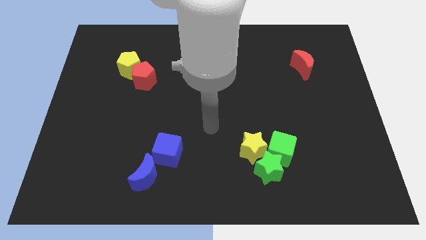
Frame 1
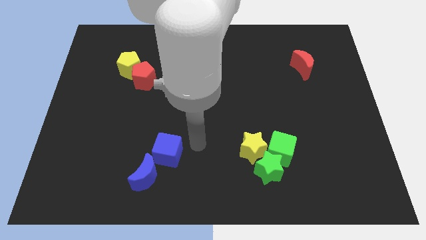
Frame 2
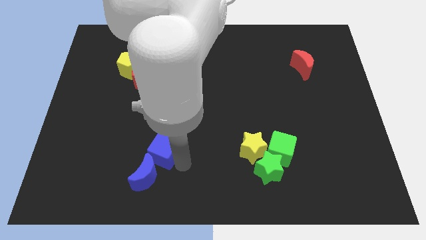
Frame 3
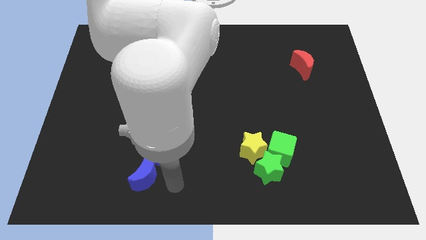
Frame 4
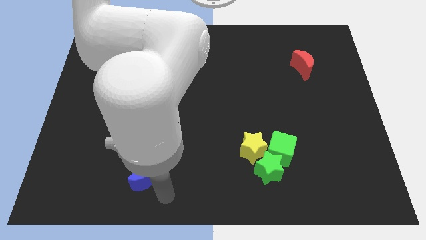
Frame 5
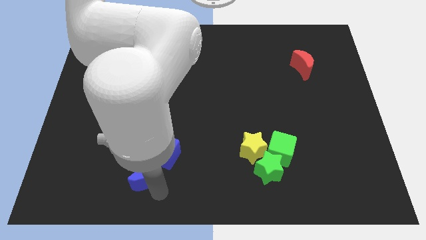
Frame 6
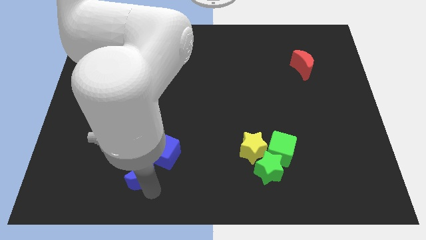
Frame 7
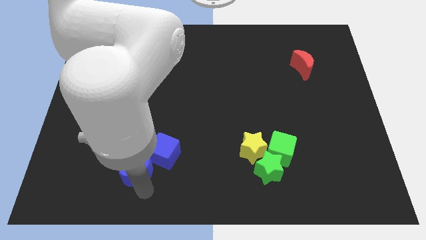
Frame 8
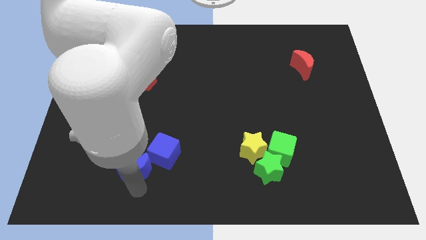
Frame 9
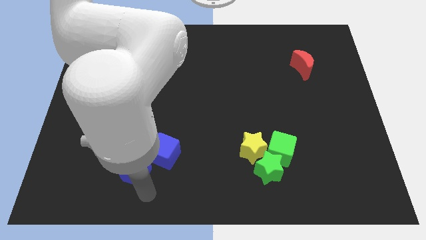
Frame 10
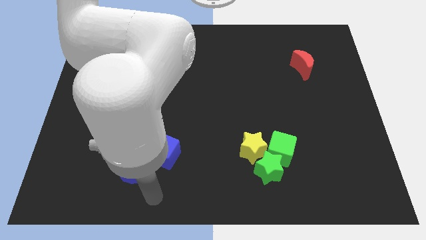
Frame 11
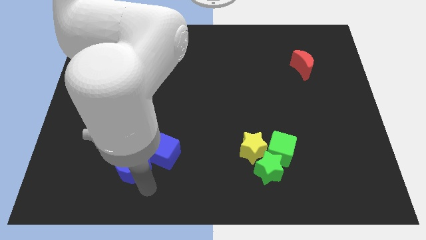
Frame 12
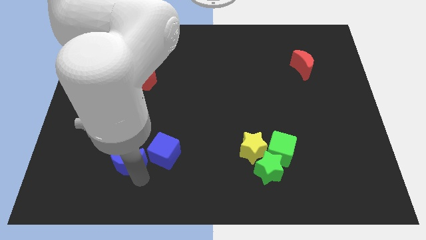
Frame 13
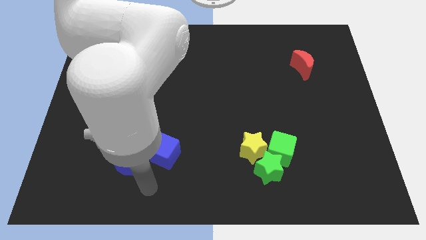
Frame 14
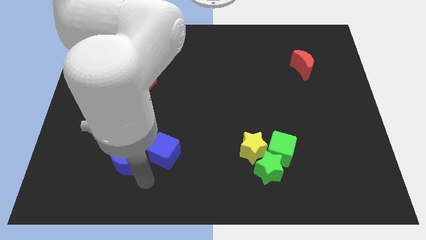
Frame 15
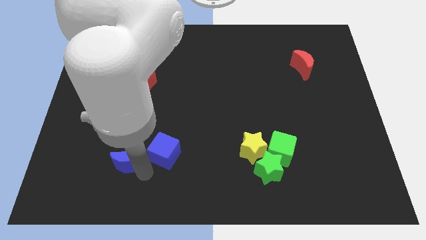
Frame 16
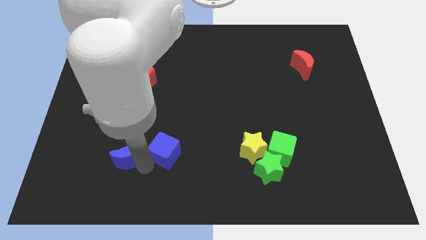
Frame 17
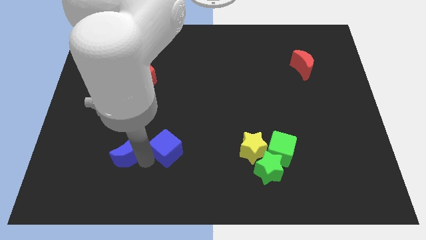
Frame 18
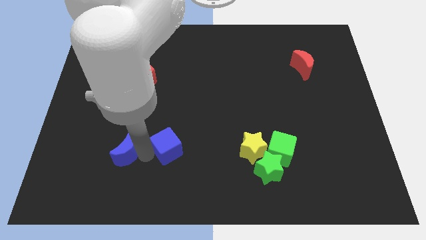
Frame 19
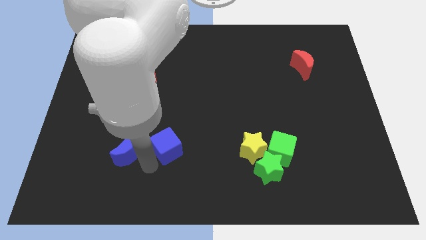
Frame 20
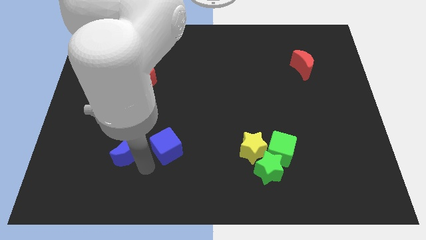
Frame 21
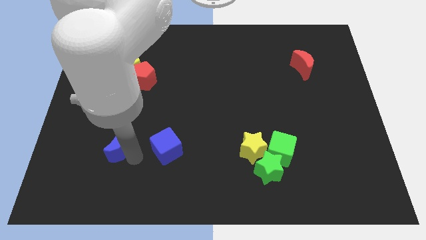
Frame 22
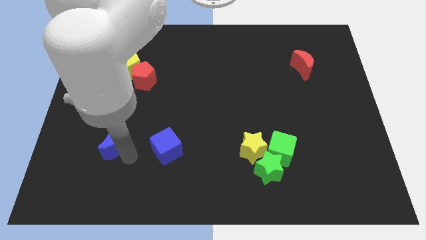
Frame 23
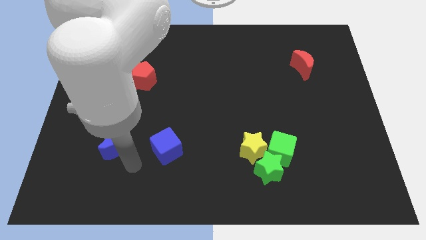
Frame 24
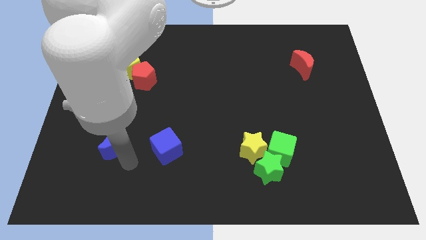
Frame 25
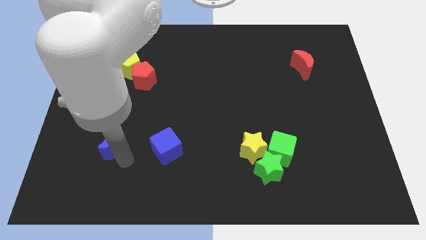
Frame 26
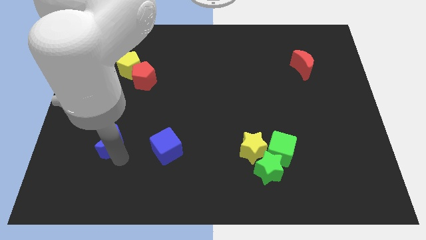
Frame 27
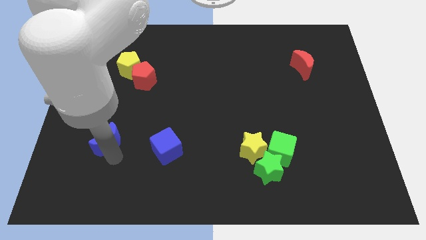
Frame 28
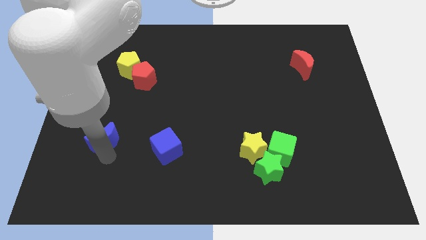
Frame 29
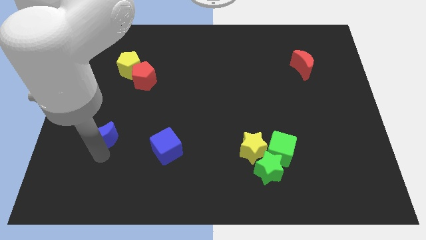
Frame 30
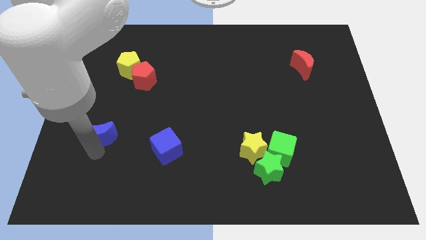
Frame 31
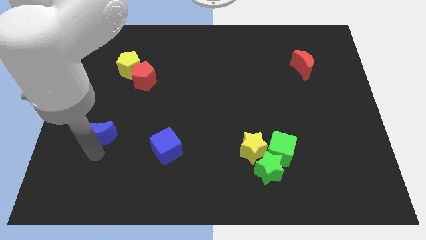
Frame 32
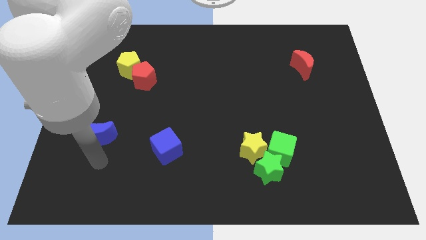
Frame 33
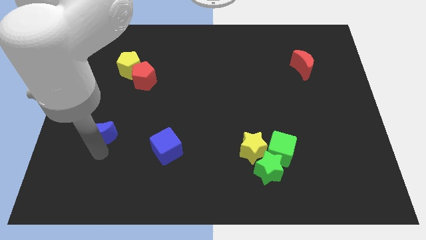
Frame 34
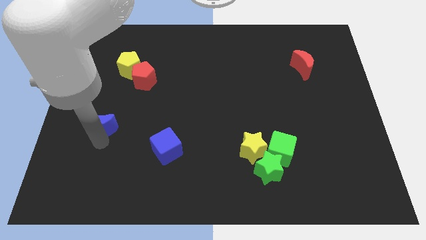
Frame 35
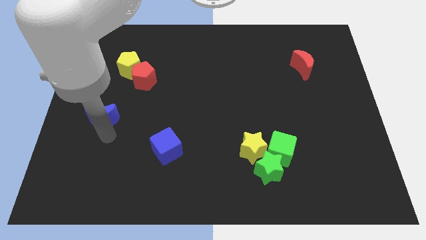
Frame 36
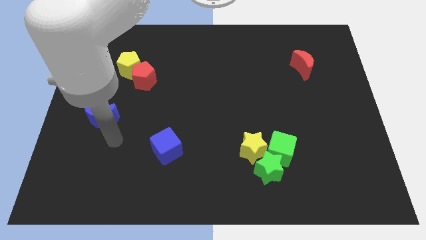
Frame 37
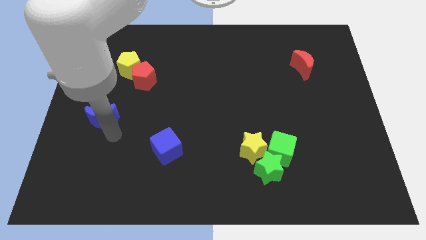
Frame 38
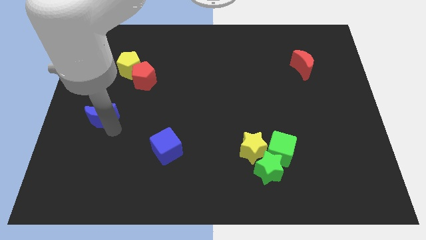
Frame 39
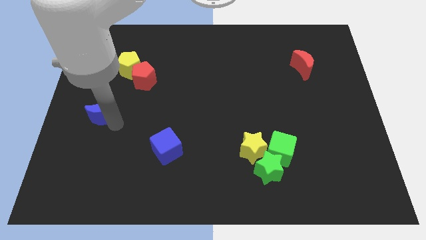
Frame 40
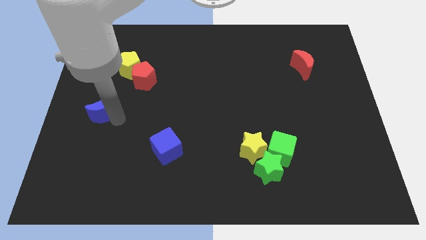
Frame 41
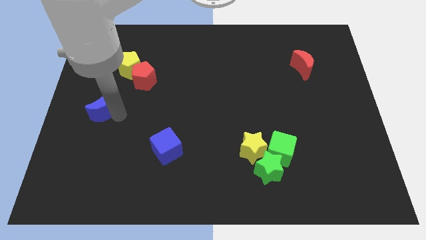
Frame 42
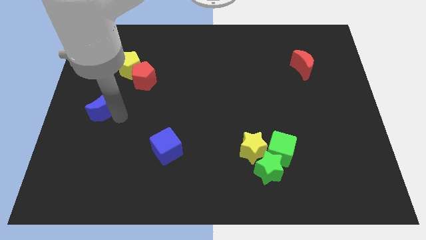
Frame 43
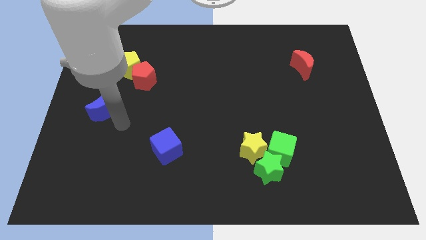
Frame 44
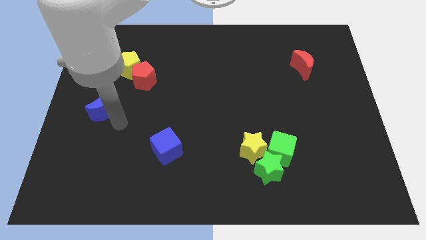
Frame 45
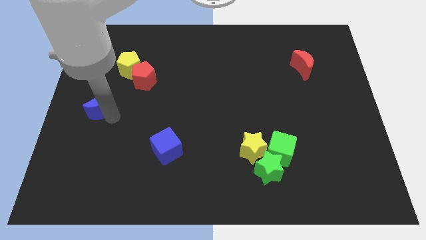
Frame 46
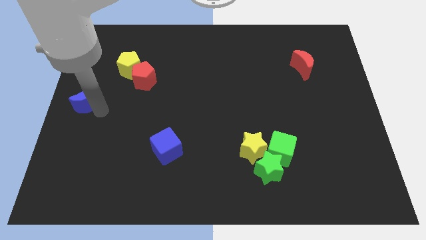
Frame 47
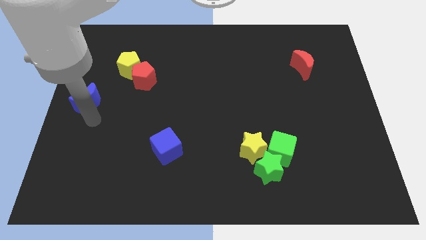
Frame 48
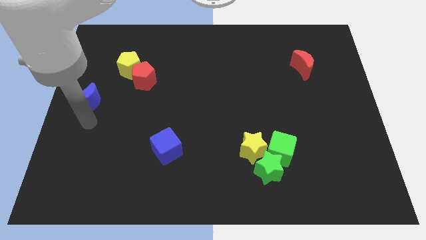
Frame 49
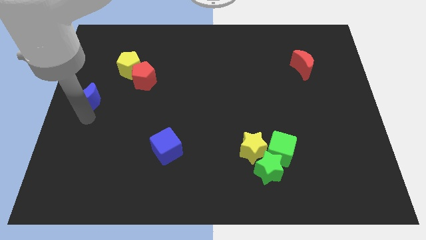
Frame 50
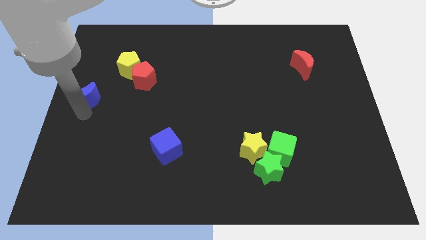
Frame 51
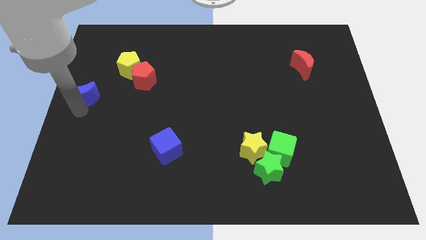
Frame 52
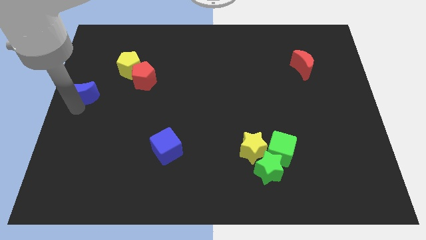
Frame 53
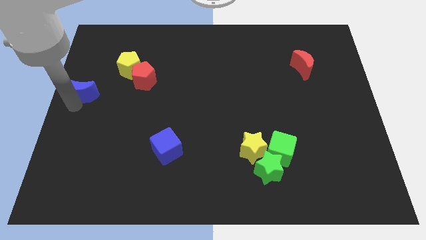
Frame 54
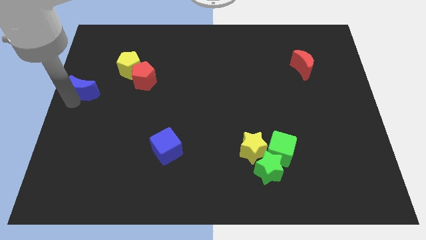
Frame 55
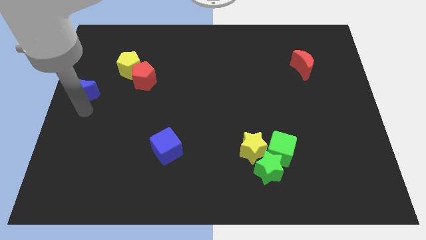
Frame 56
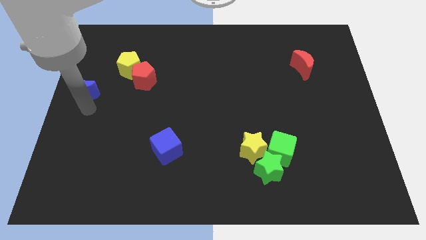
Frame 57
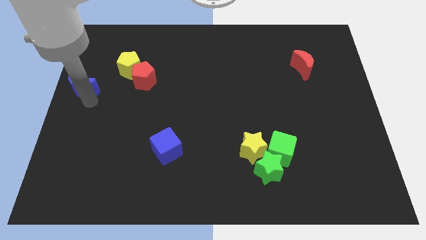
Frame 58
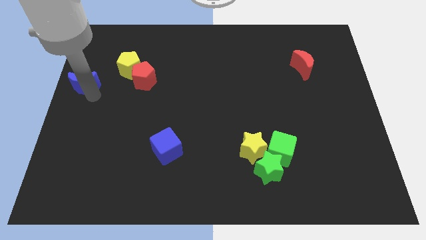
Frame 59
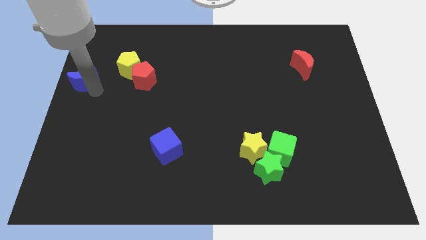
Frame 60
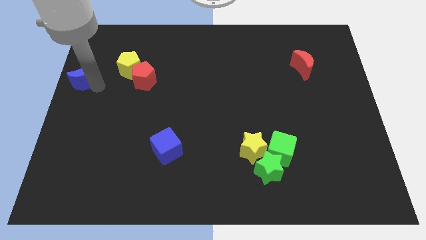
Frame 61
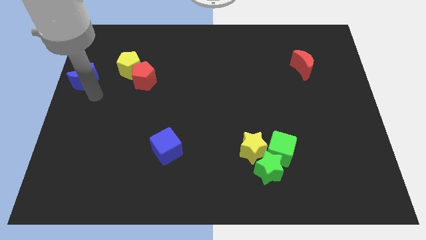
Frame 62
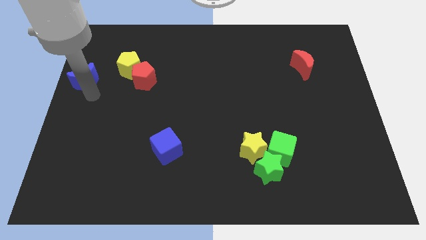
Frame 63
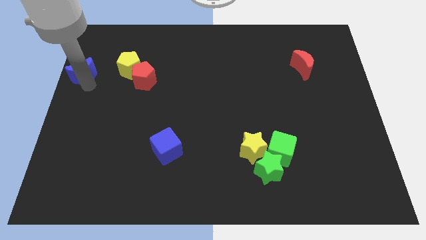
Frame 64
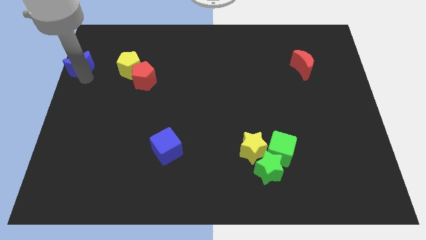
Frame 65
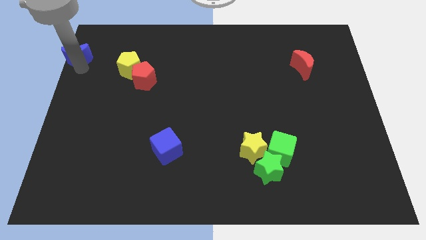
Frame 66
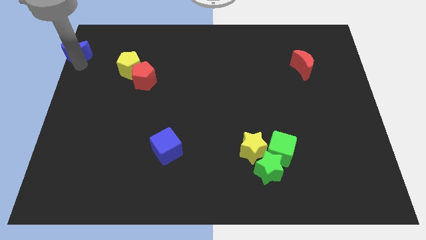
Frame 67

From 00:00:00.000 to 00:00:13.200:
push the blue moon to the upper left corner
